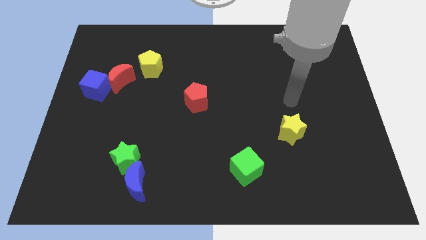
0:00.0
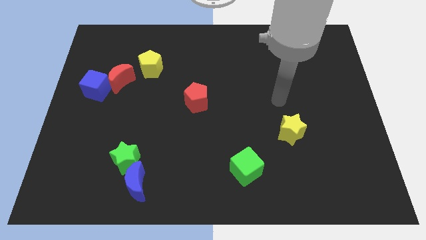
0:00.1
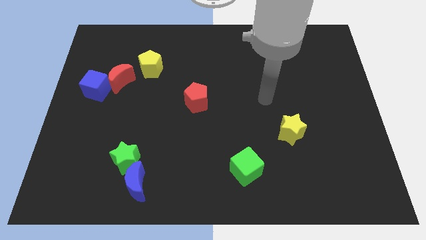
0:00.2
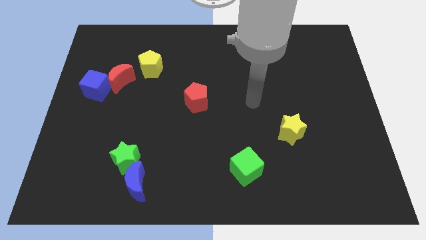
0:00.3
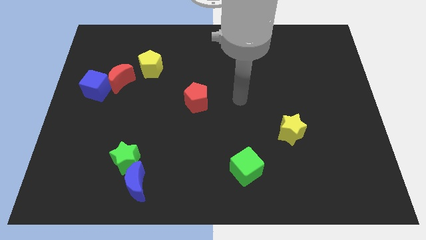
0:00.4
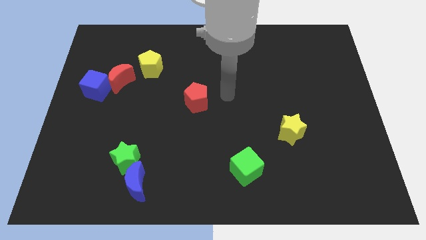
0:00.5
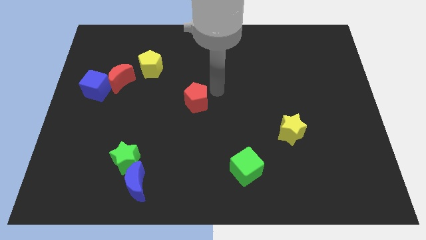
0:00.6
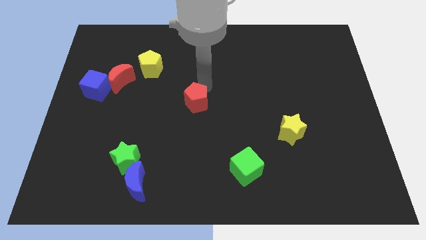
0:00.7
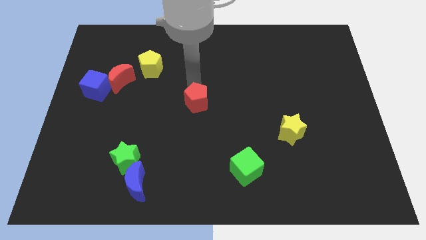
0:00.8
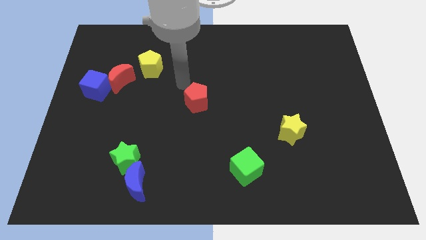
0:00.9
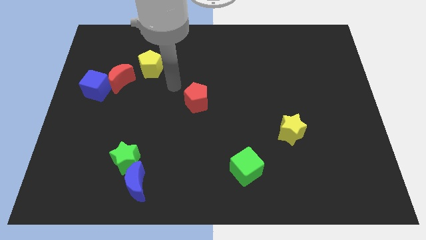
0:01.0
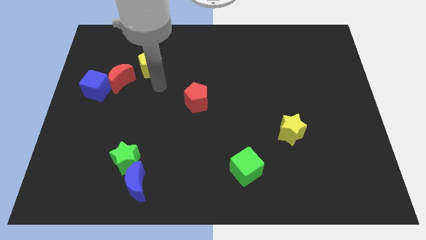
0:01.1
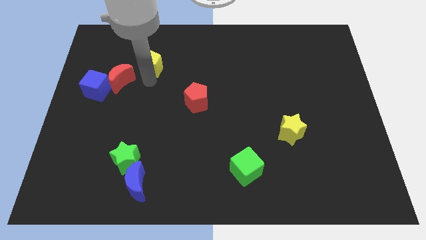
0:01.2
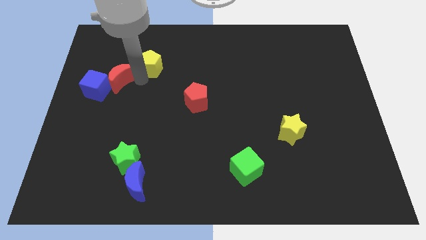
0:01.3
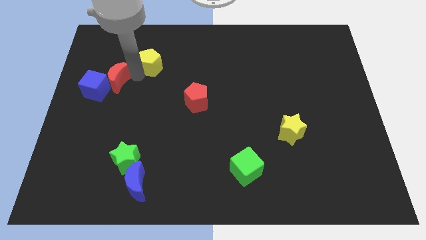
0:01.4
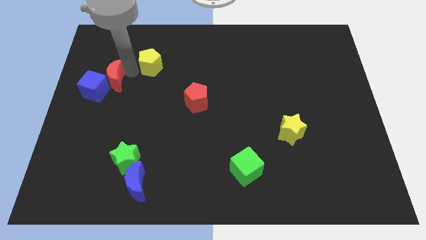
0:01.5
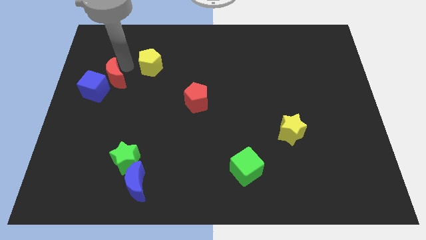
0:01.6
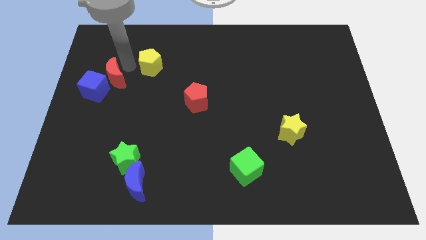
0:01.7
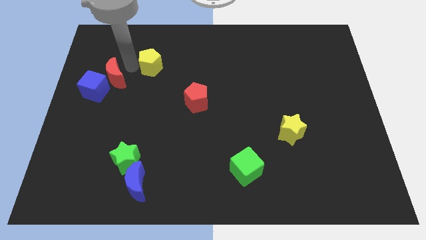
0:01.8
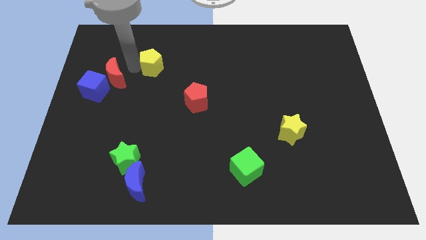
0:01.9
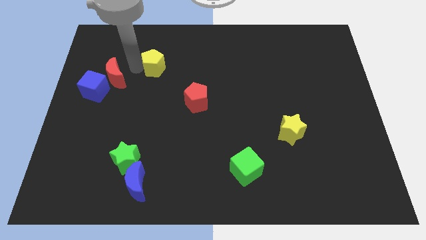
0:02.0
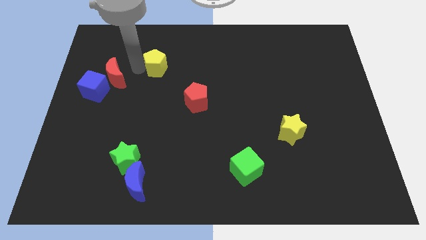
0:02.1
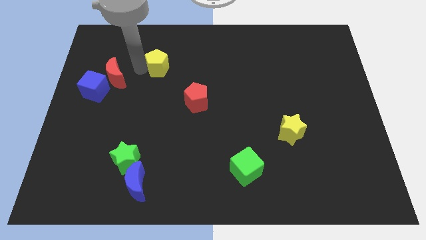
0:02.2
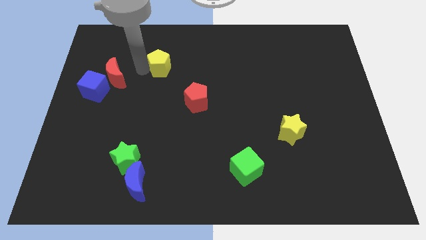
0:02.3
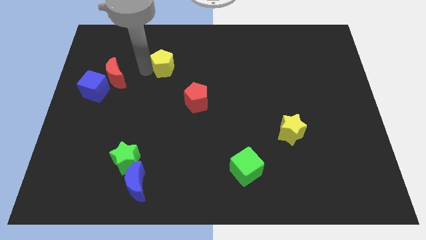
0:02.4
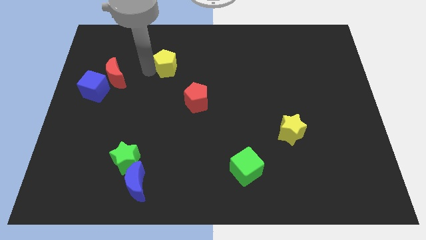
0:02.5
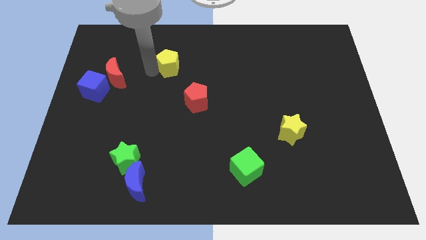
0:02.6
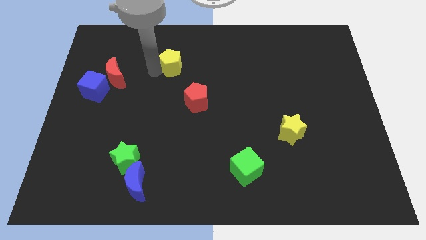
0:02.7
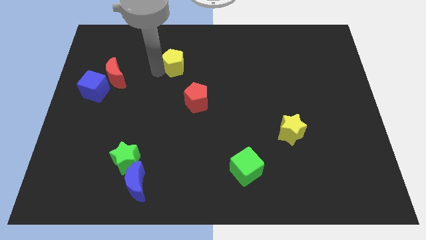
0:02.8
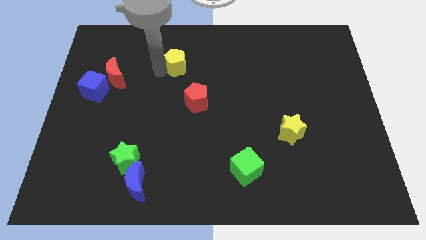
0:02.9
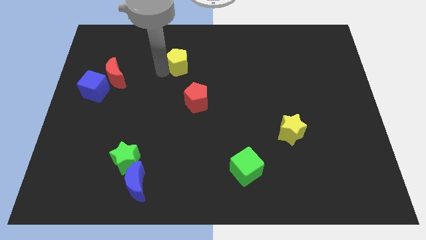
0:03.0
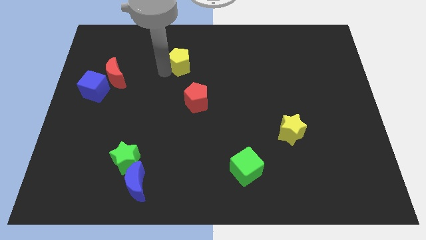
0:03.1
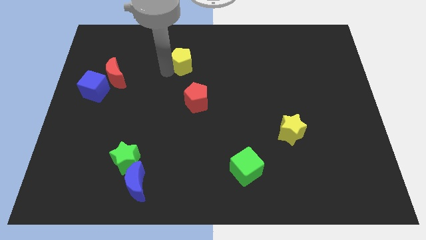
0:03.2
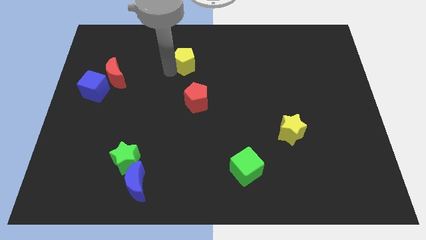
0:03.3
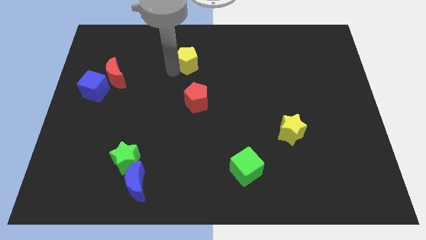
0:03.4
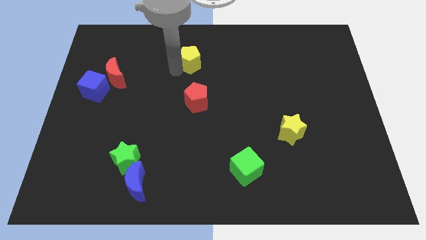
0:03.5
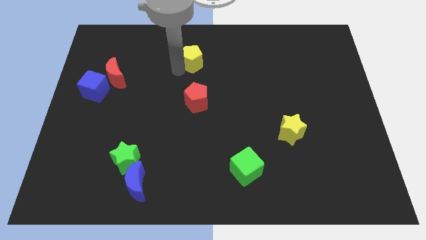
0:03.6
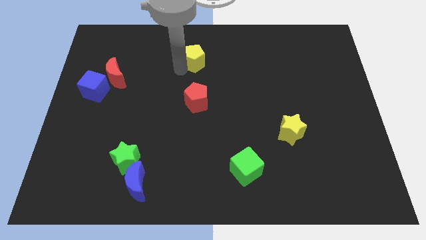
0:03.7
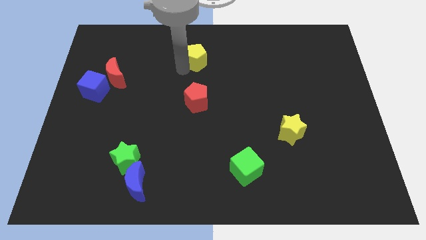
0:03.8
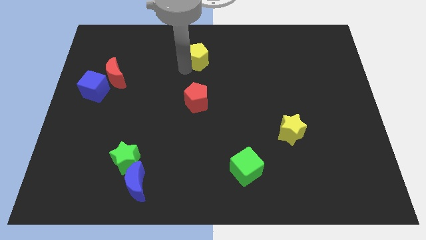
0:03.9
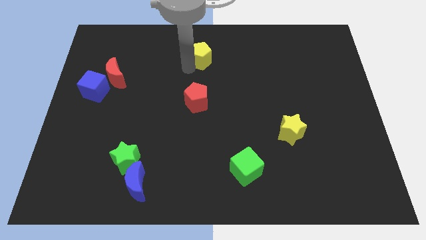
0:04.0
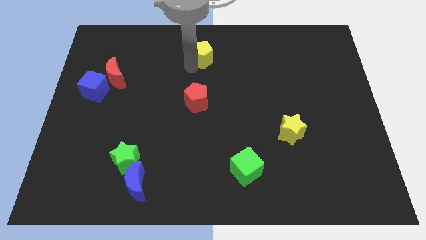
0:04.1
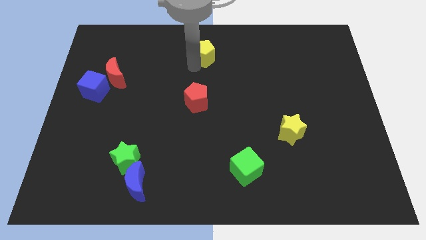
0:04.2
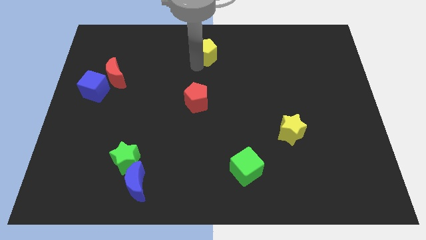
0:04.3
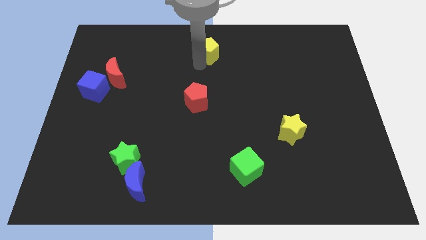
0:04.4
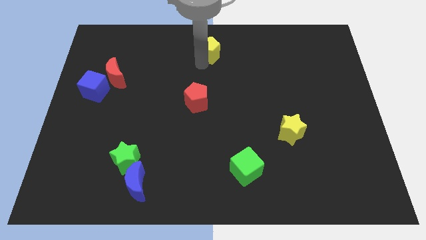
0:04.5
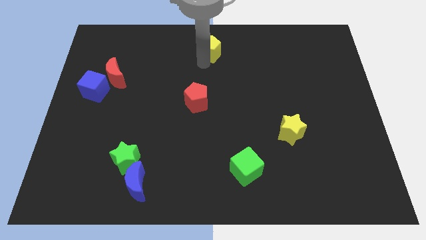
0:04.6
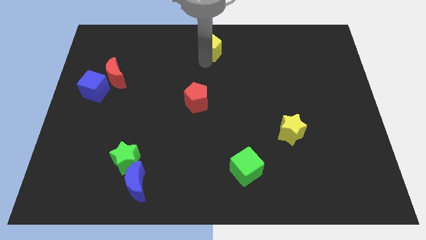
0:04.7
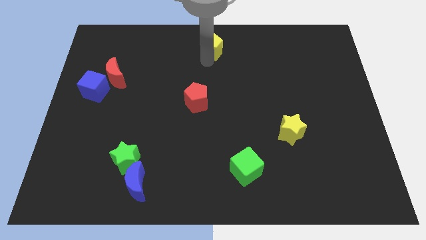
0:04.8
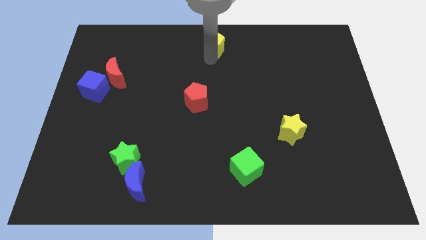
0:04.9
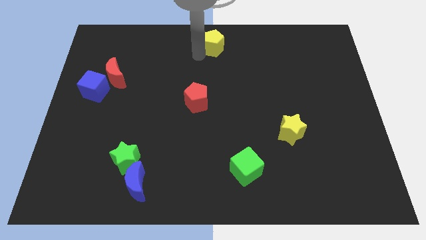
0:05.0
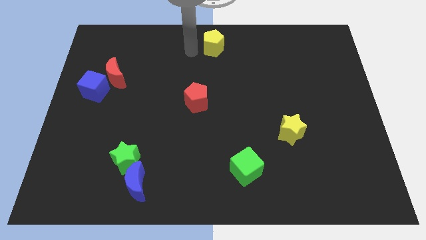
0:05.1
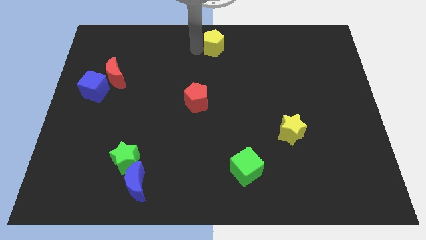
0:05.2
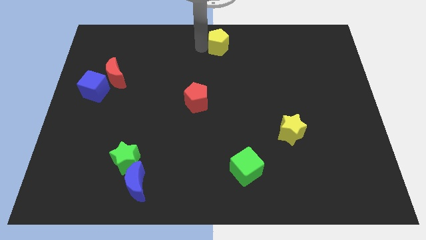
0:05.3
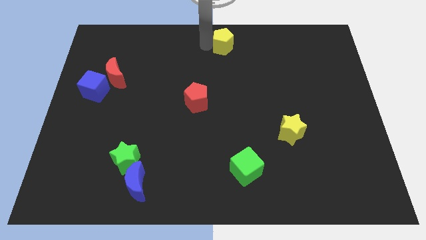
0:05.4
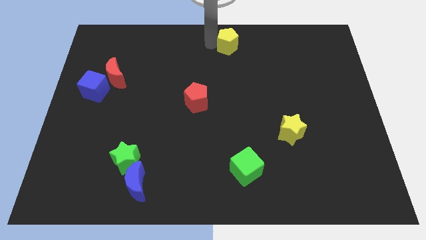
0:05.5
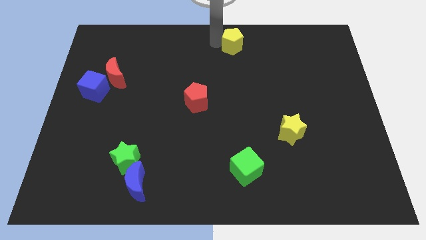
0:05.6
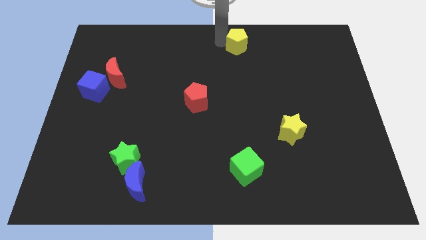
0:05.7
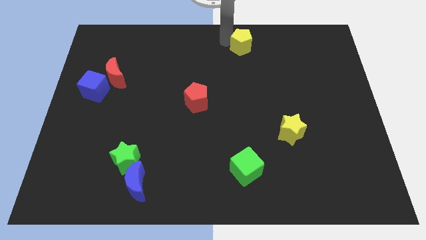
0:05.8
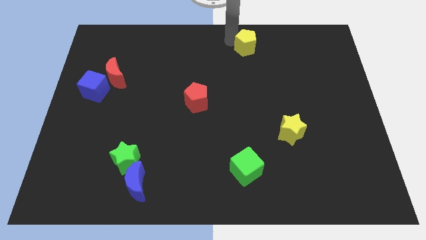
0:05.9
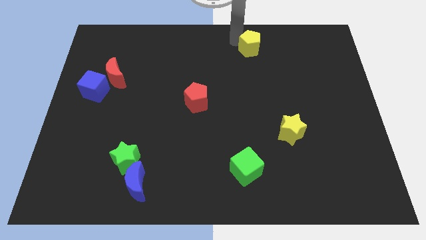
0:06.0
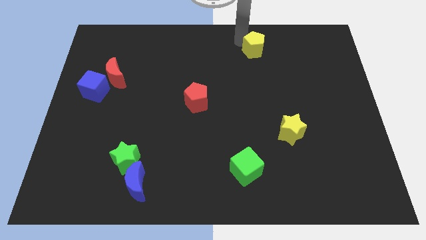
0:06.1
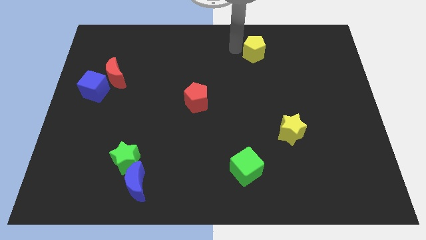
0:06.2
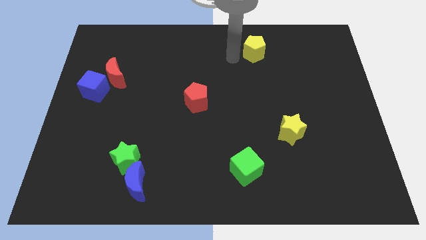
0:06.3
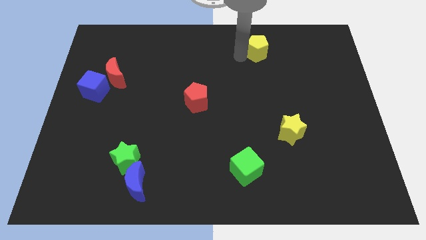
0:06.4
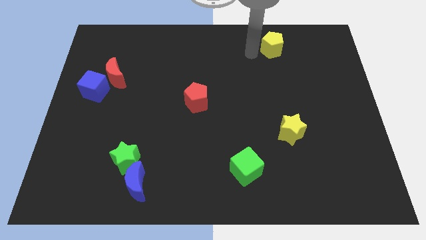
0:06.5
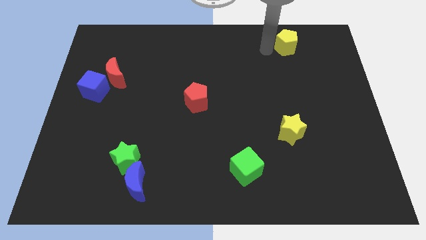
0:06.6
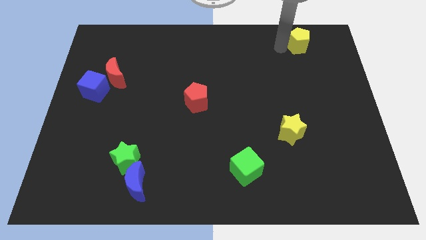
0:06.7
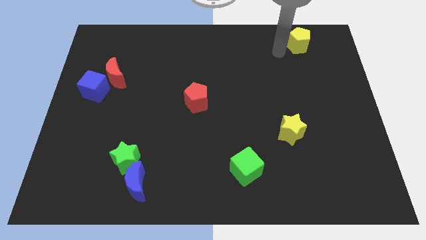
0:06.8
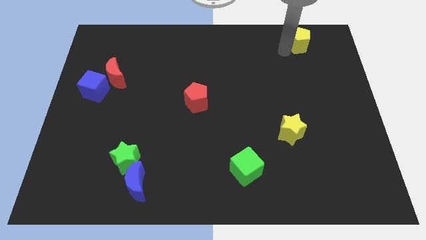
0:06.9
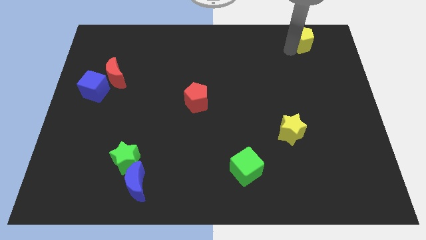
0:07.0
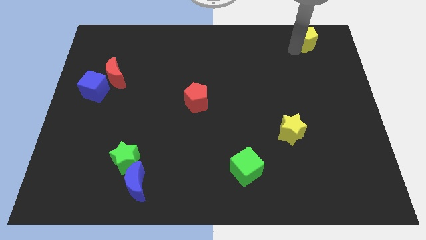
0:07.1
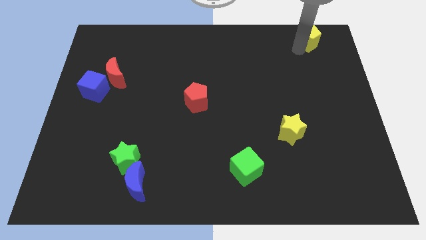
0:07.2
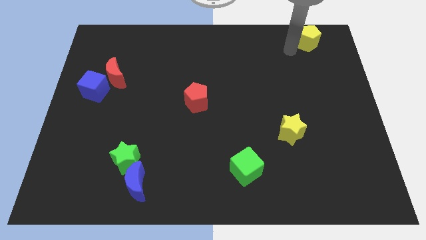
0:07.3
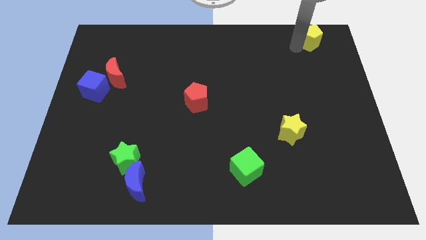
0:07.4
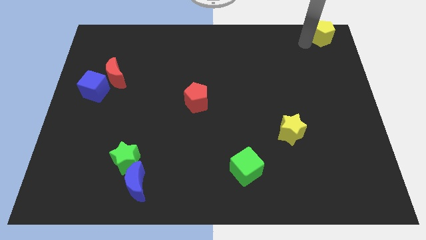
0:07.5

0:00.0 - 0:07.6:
put the yellow pentagon to the upper right corner
